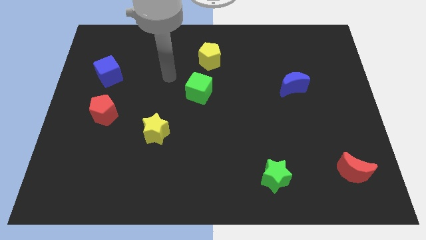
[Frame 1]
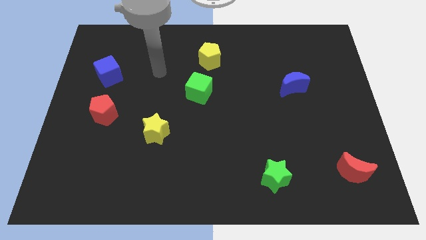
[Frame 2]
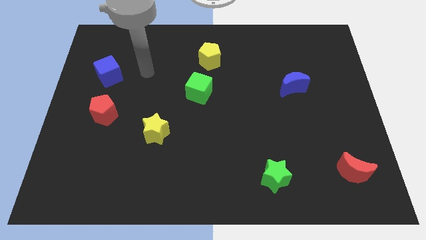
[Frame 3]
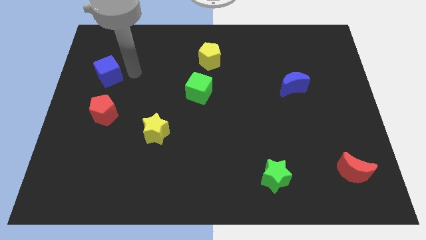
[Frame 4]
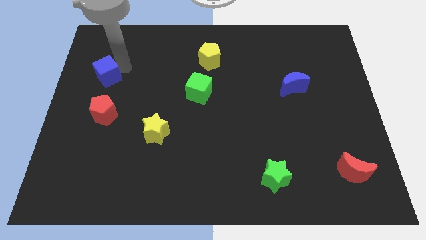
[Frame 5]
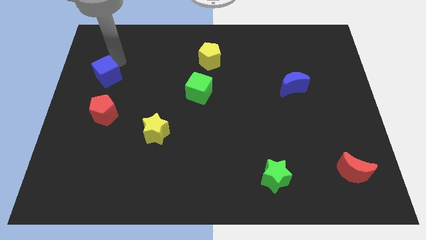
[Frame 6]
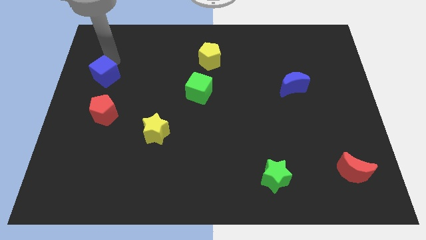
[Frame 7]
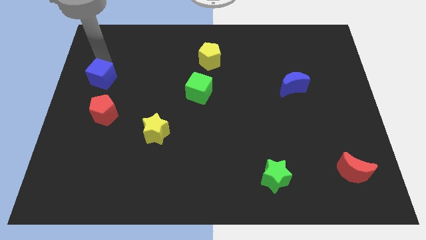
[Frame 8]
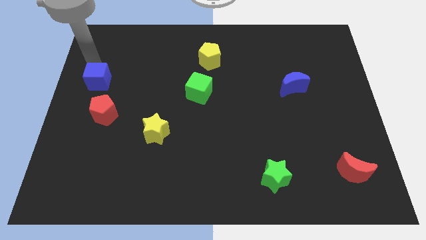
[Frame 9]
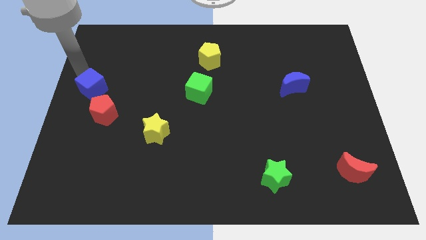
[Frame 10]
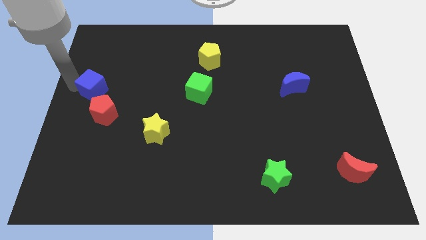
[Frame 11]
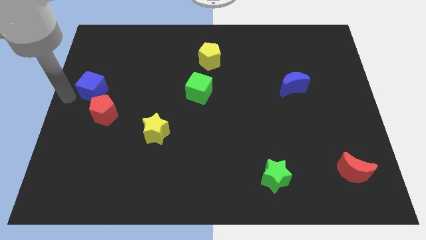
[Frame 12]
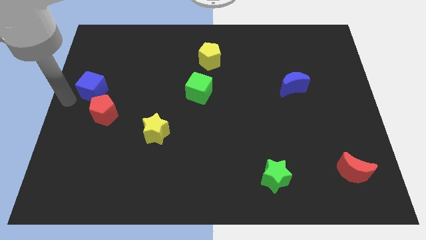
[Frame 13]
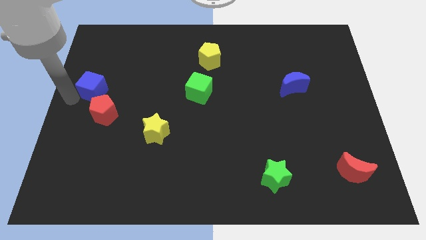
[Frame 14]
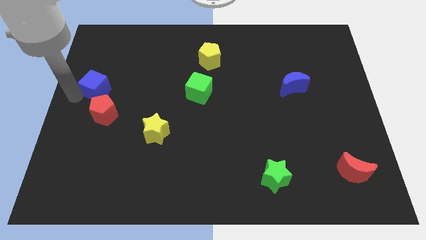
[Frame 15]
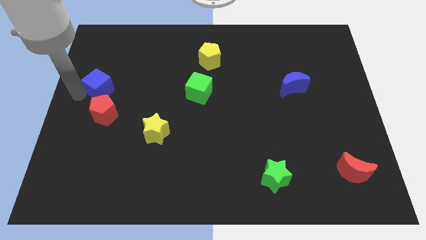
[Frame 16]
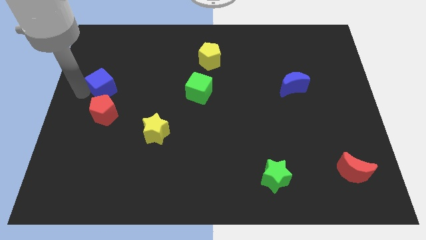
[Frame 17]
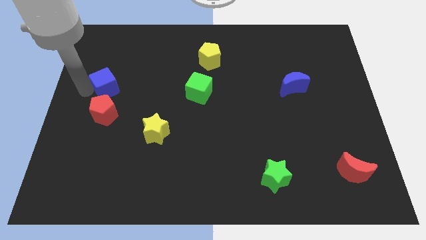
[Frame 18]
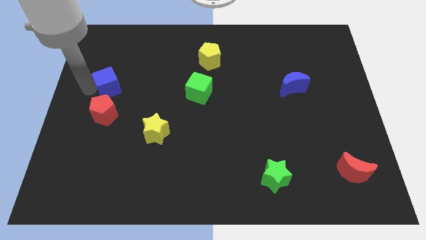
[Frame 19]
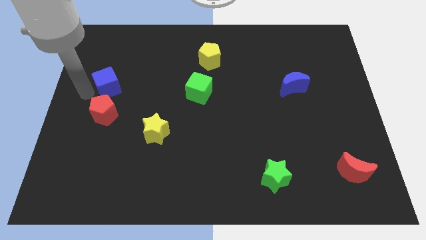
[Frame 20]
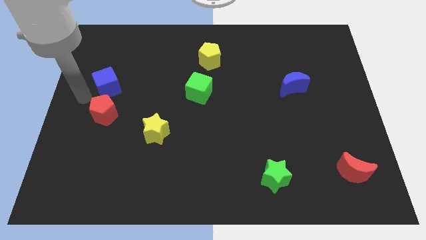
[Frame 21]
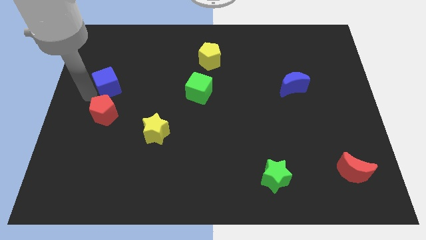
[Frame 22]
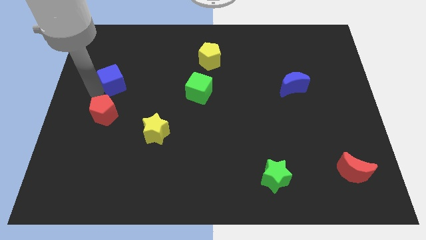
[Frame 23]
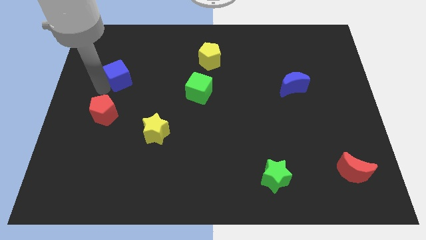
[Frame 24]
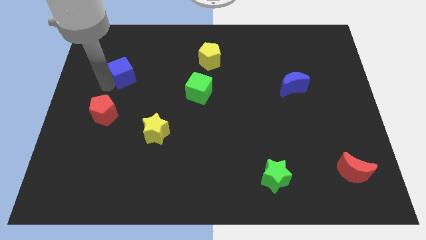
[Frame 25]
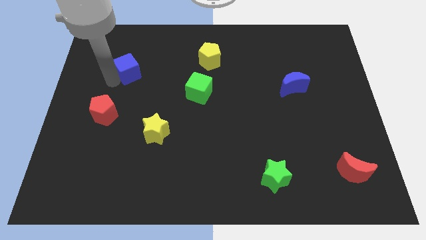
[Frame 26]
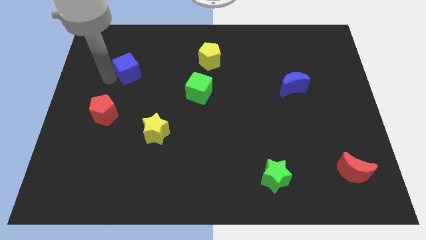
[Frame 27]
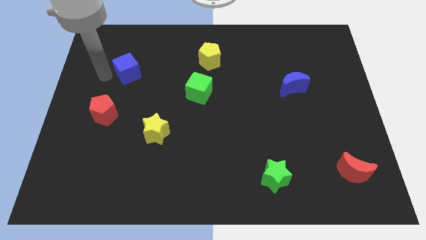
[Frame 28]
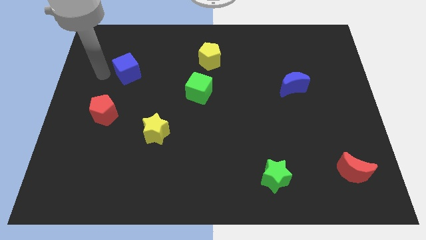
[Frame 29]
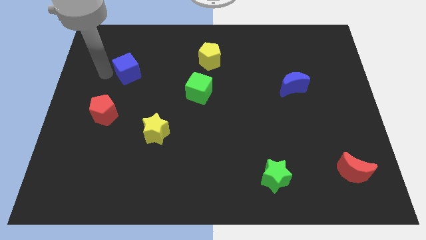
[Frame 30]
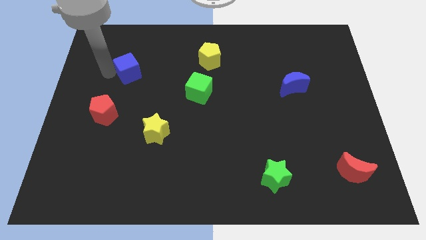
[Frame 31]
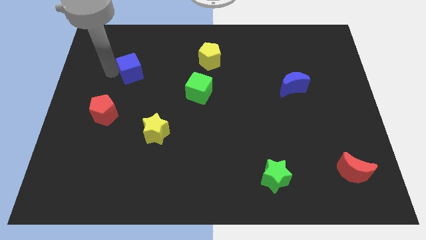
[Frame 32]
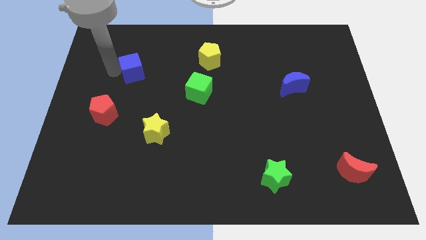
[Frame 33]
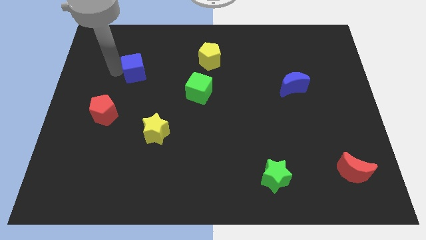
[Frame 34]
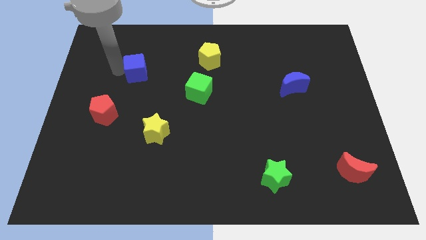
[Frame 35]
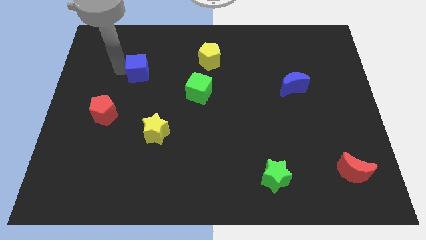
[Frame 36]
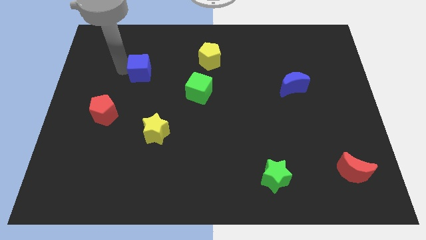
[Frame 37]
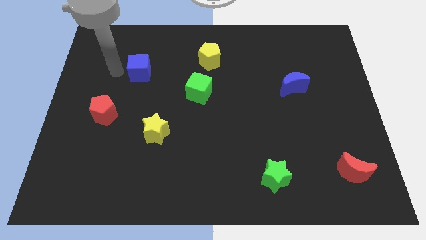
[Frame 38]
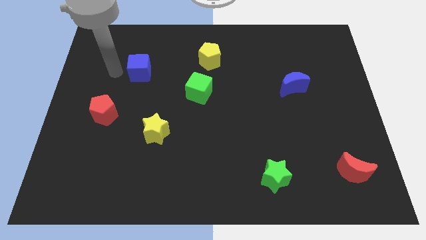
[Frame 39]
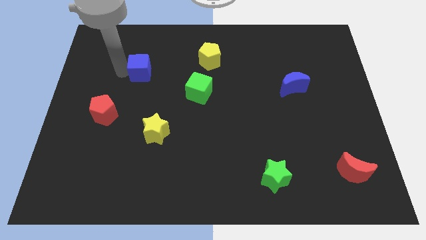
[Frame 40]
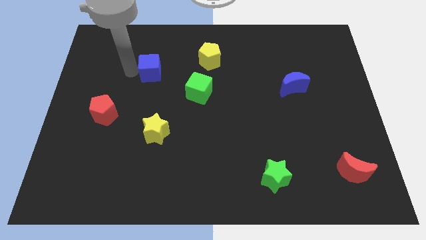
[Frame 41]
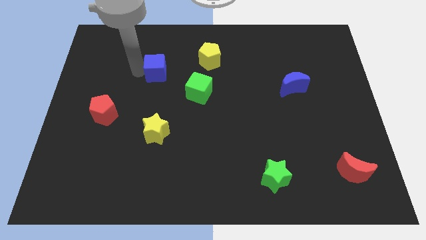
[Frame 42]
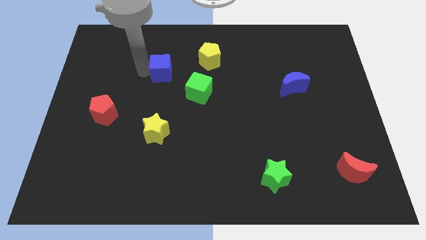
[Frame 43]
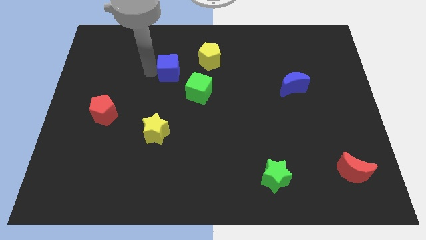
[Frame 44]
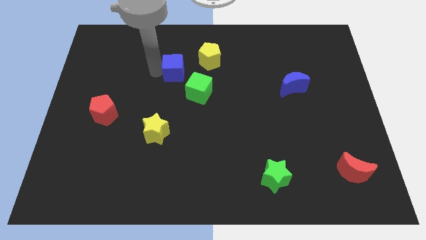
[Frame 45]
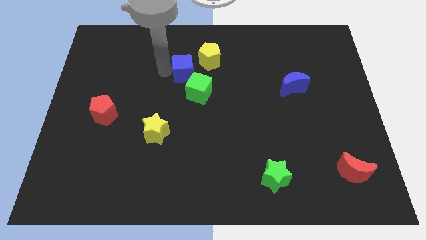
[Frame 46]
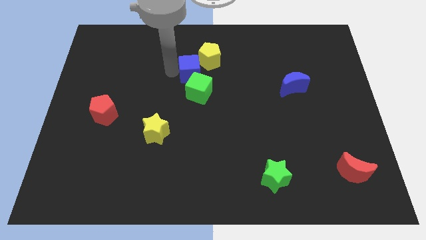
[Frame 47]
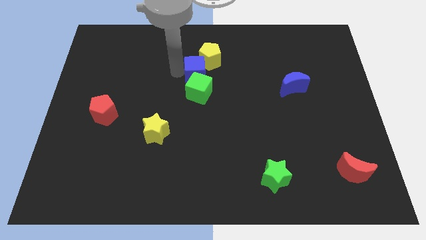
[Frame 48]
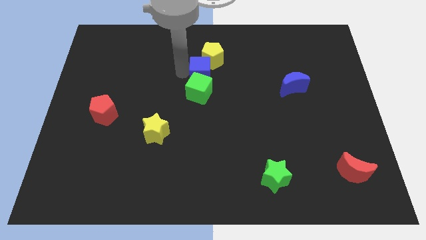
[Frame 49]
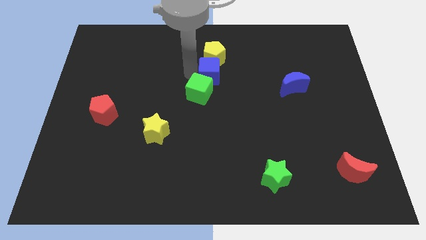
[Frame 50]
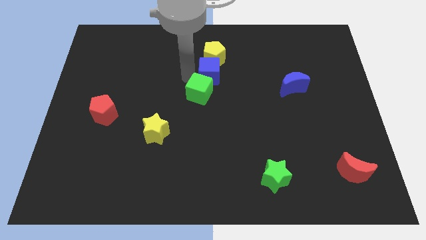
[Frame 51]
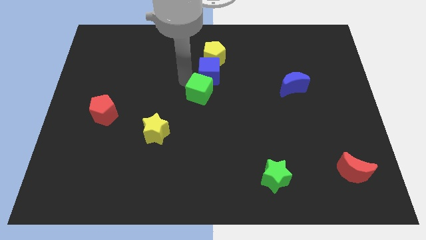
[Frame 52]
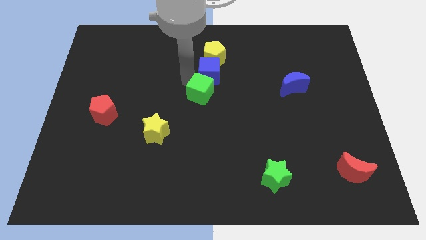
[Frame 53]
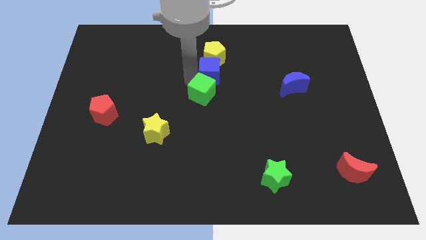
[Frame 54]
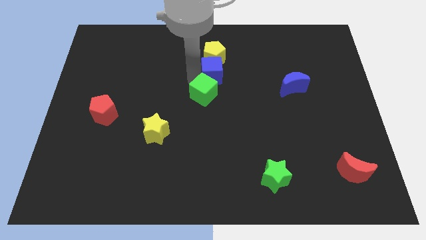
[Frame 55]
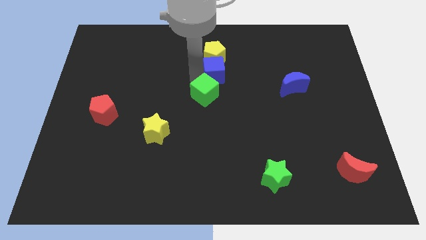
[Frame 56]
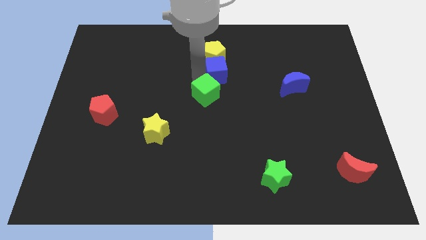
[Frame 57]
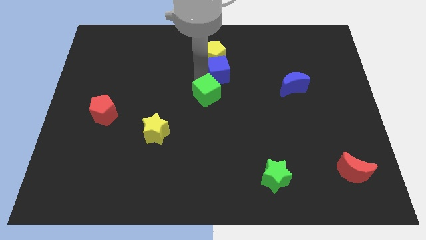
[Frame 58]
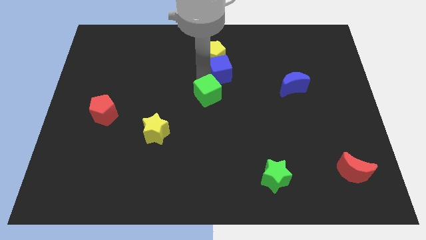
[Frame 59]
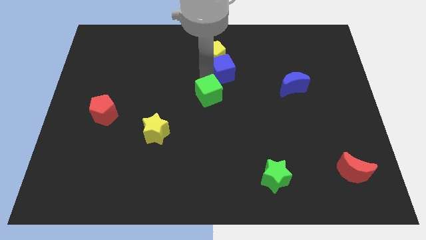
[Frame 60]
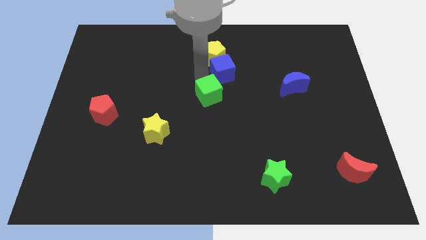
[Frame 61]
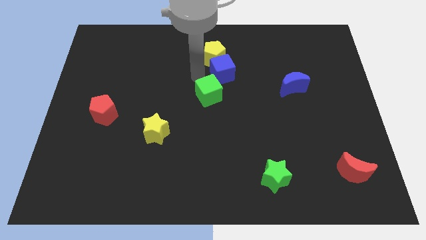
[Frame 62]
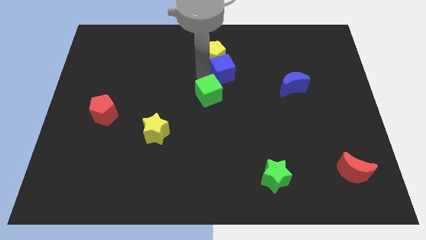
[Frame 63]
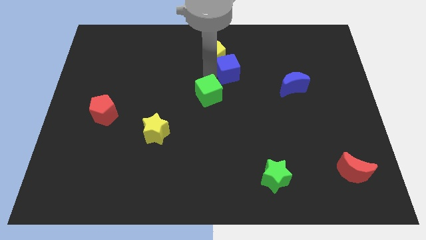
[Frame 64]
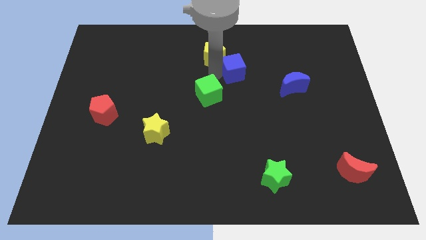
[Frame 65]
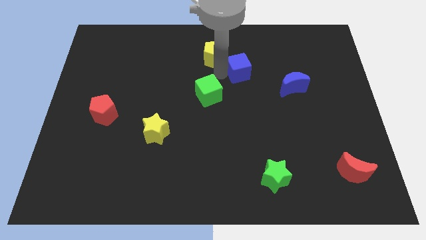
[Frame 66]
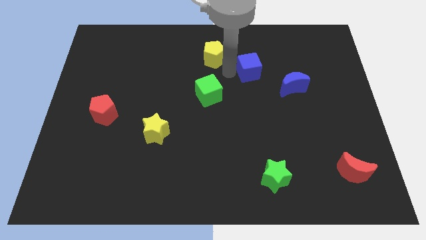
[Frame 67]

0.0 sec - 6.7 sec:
slide the blue cube to the top left side of the blue moon

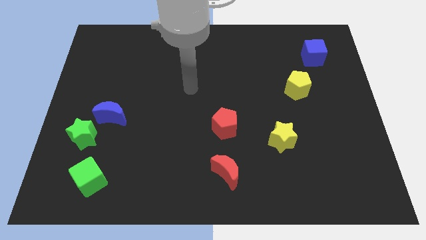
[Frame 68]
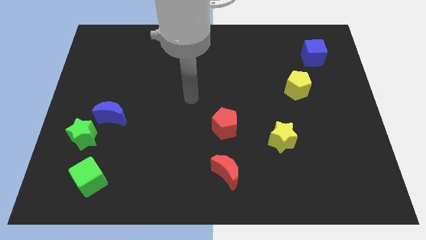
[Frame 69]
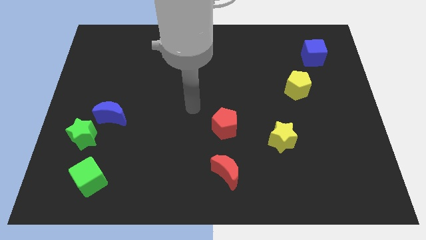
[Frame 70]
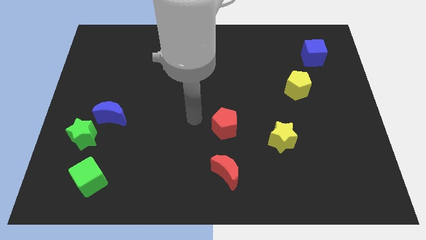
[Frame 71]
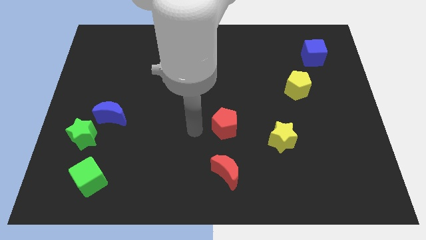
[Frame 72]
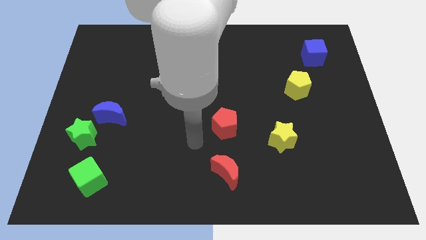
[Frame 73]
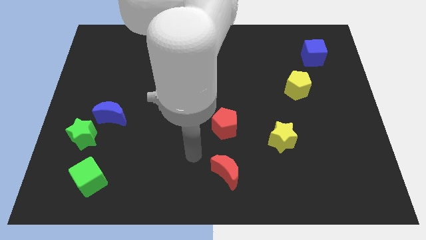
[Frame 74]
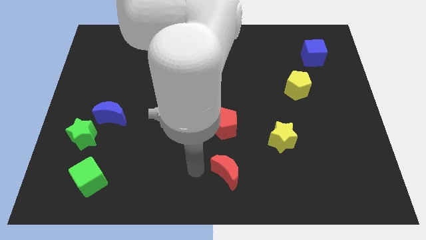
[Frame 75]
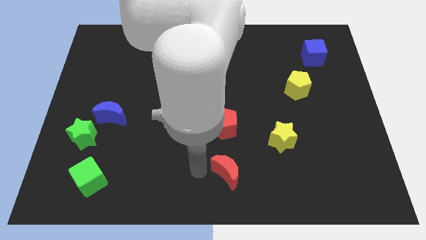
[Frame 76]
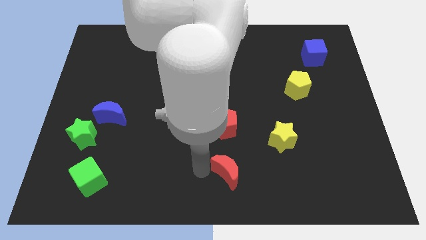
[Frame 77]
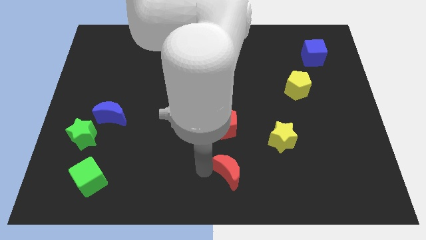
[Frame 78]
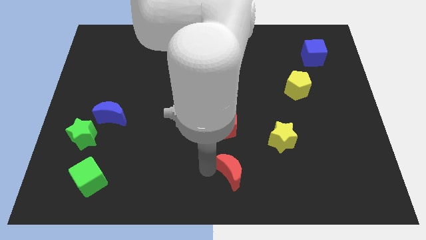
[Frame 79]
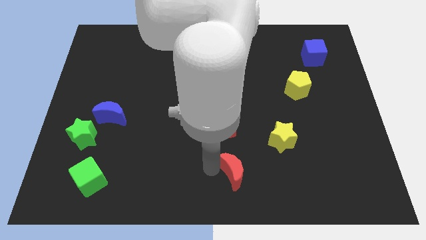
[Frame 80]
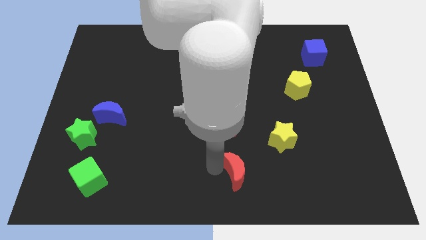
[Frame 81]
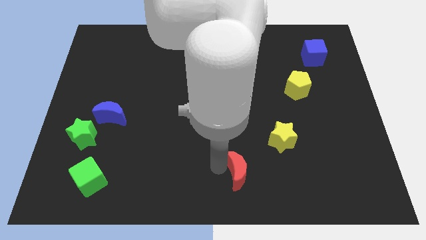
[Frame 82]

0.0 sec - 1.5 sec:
move the red moon diagonally down and to the left of the yellow star
